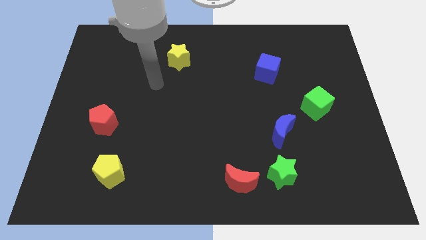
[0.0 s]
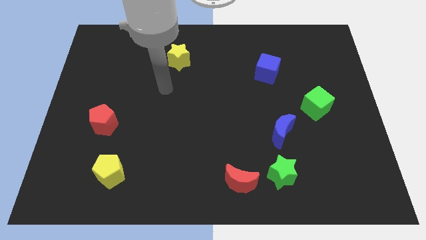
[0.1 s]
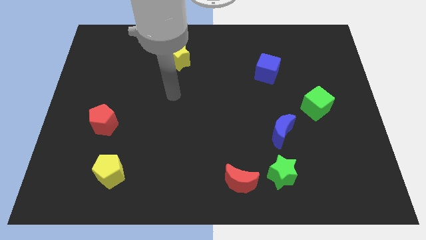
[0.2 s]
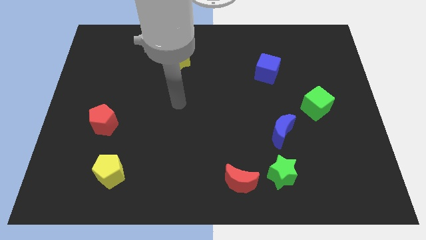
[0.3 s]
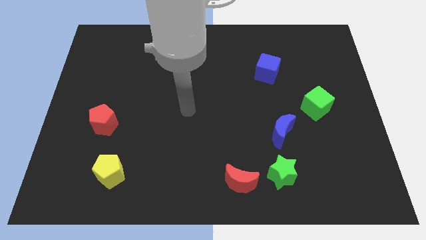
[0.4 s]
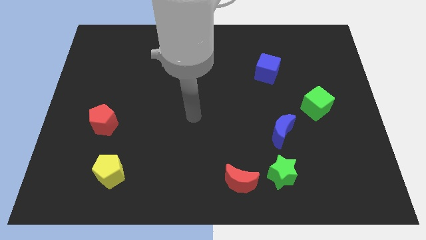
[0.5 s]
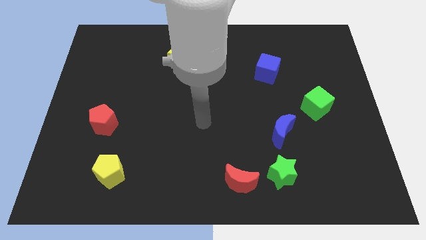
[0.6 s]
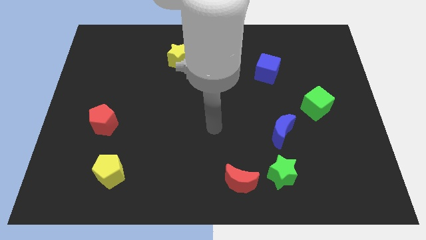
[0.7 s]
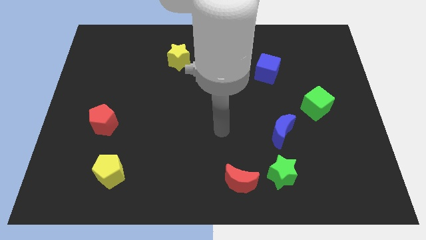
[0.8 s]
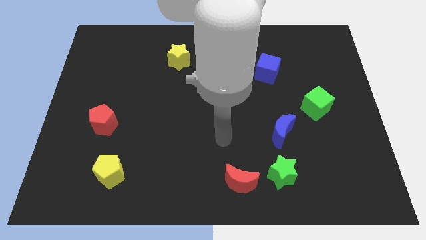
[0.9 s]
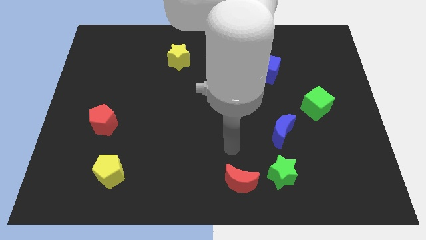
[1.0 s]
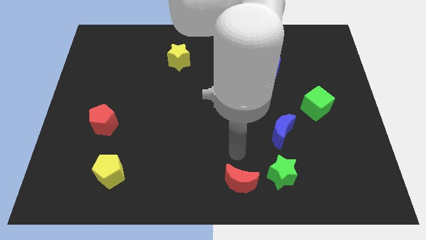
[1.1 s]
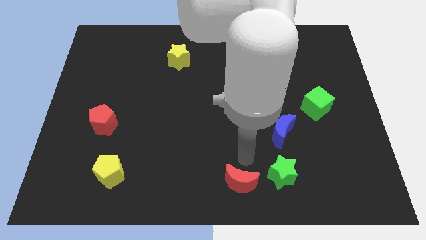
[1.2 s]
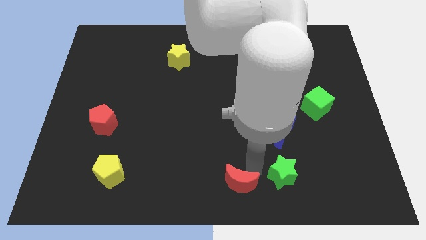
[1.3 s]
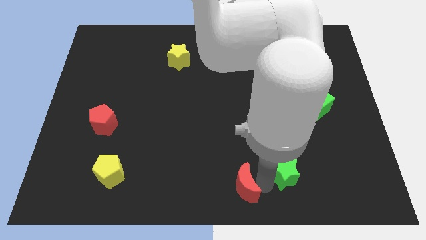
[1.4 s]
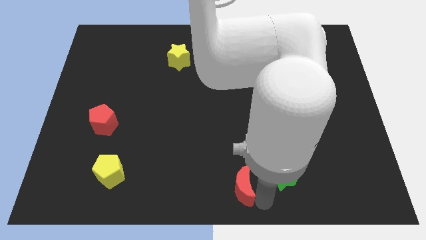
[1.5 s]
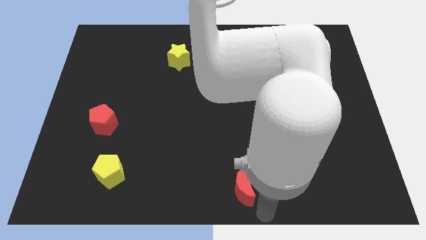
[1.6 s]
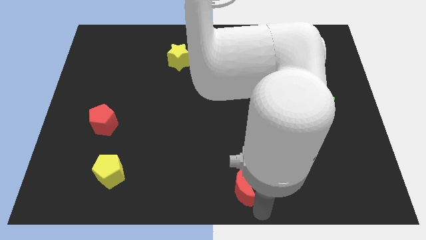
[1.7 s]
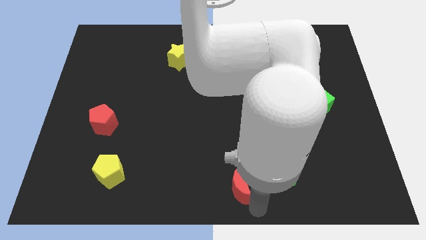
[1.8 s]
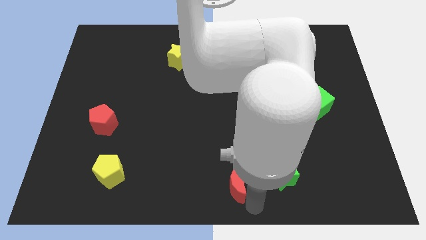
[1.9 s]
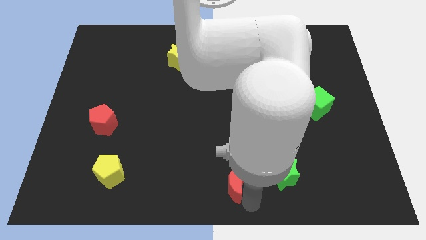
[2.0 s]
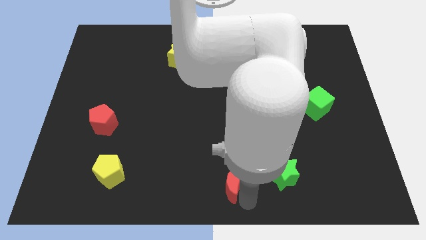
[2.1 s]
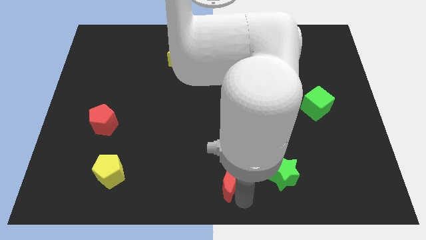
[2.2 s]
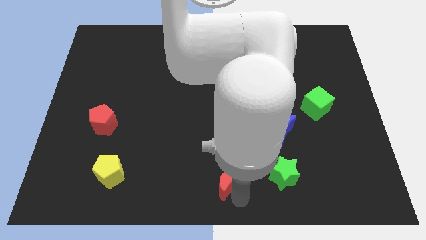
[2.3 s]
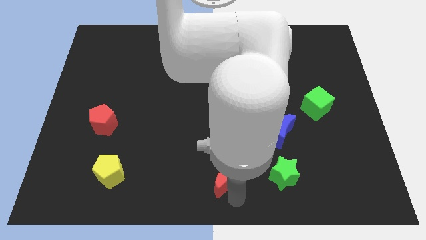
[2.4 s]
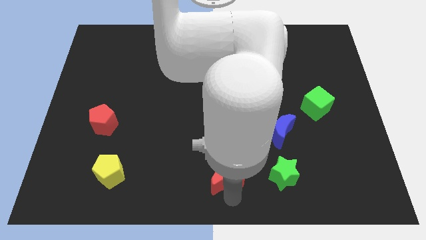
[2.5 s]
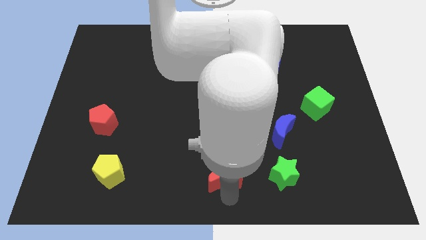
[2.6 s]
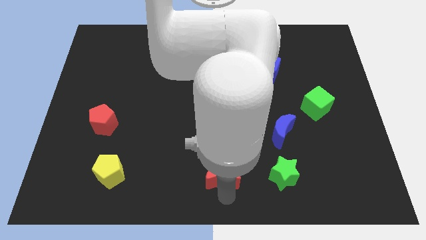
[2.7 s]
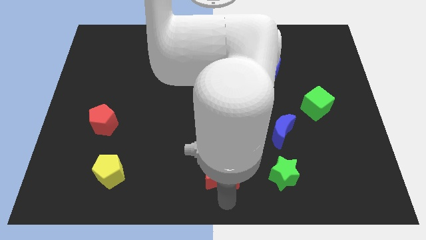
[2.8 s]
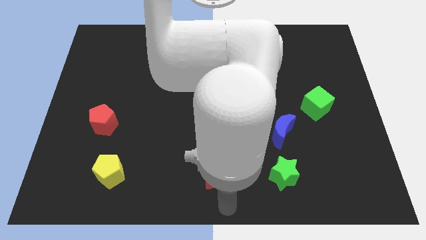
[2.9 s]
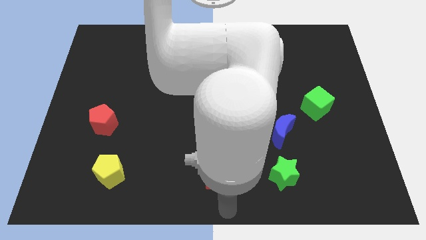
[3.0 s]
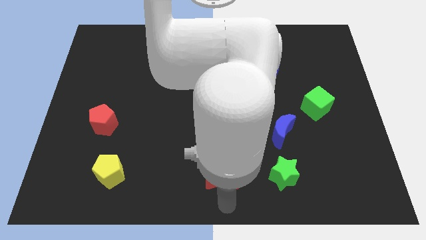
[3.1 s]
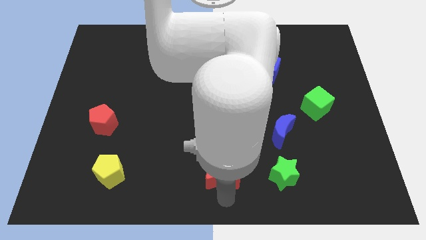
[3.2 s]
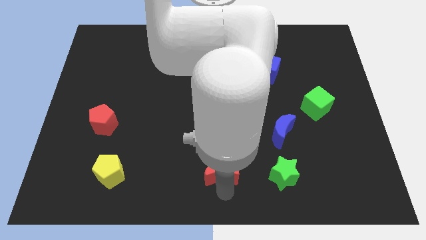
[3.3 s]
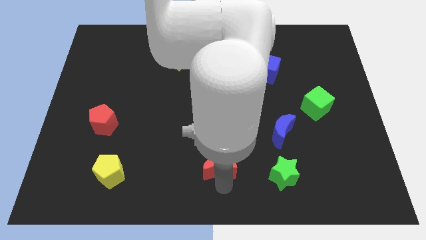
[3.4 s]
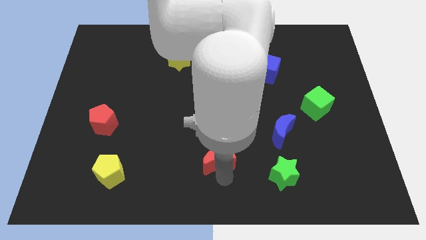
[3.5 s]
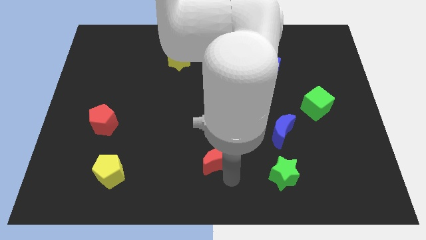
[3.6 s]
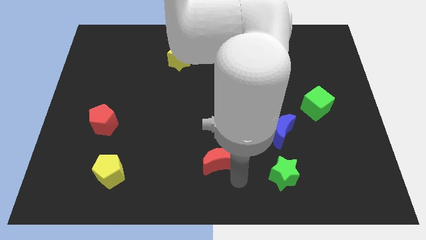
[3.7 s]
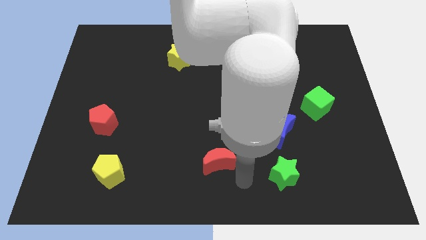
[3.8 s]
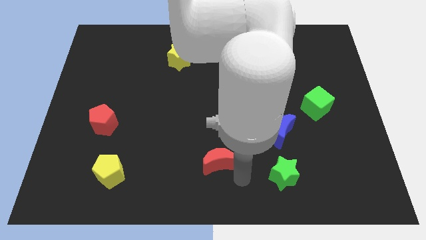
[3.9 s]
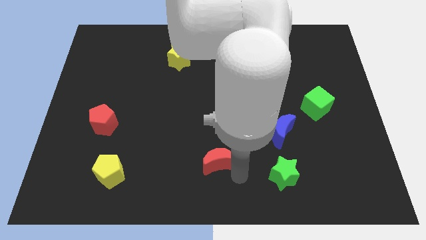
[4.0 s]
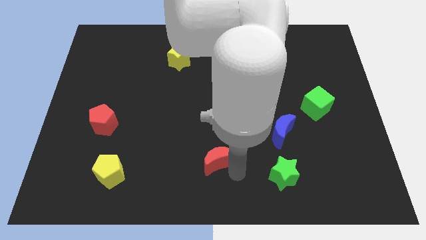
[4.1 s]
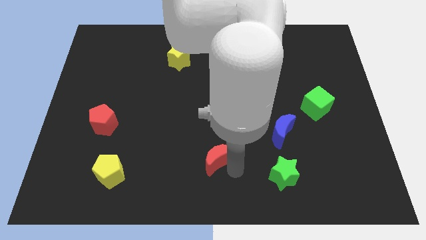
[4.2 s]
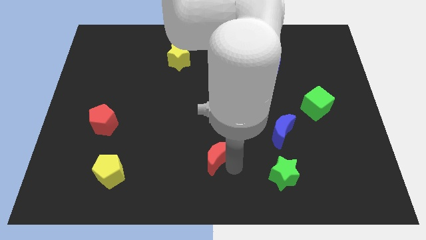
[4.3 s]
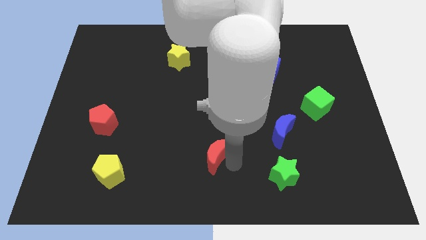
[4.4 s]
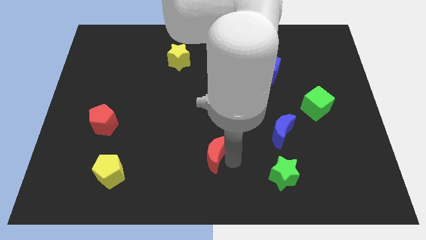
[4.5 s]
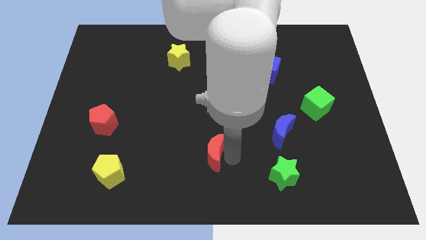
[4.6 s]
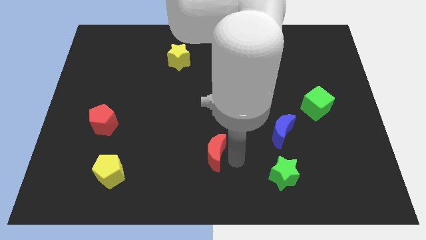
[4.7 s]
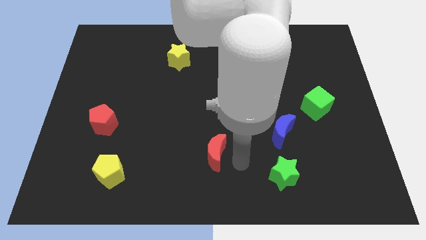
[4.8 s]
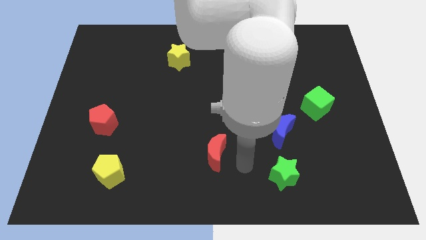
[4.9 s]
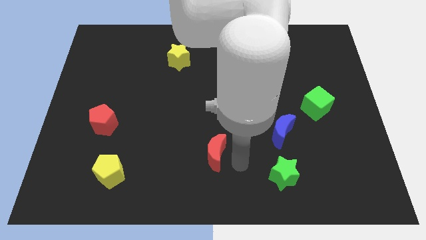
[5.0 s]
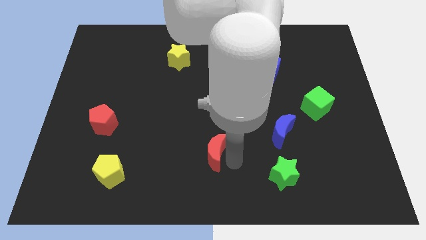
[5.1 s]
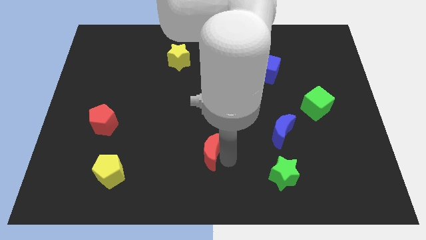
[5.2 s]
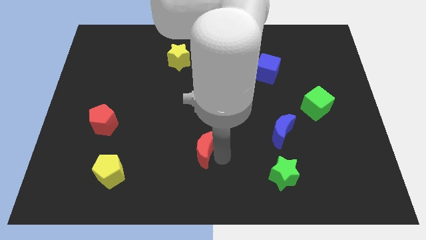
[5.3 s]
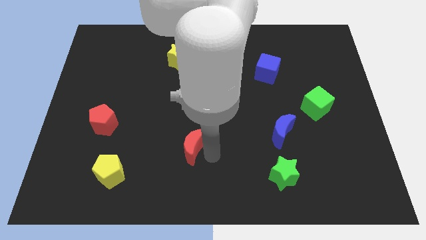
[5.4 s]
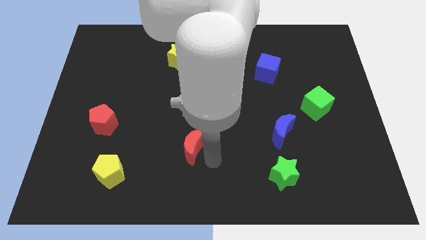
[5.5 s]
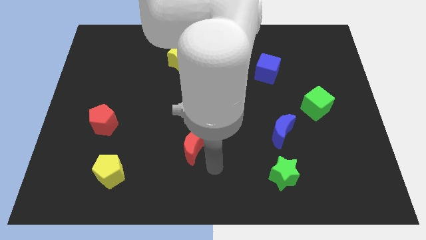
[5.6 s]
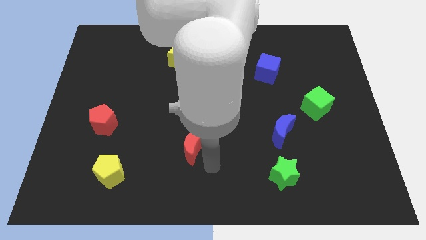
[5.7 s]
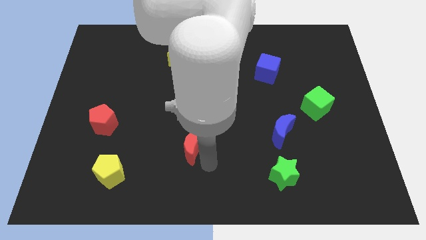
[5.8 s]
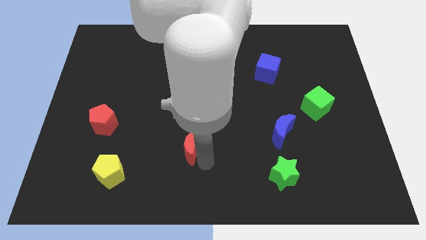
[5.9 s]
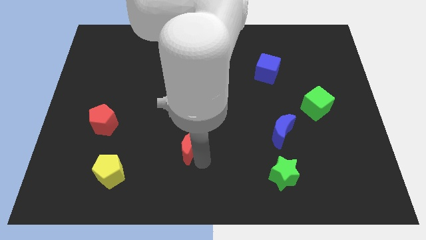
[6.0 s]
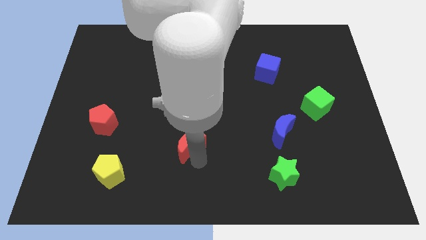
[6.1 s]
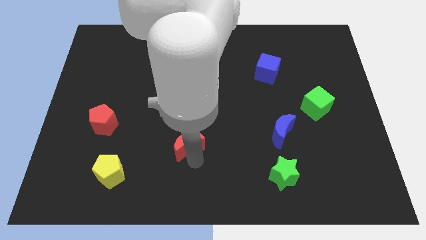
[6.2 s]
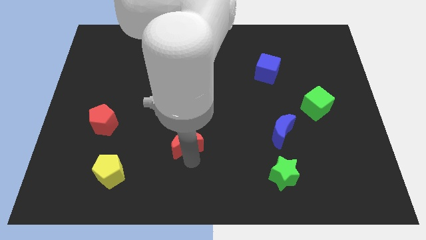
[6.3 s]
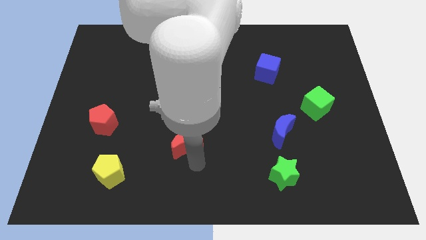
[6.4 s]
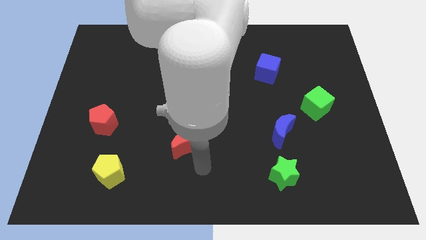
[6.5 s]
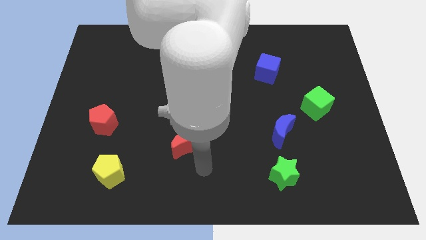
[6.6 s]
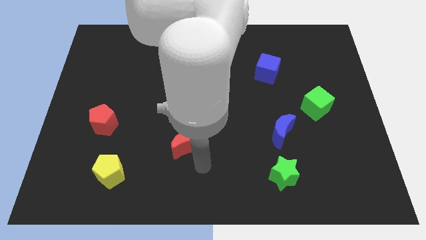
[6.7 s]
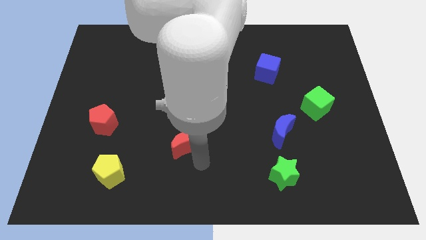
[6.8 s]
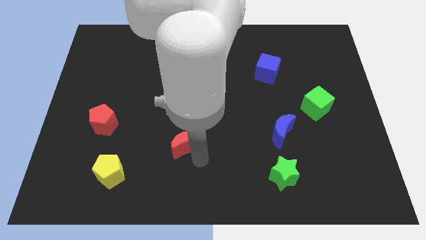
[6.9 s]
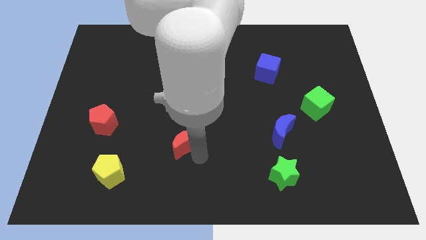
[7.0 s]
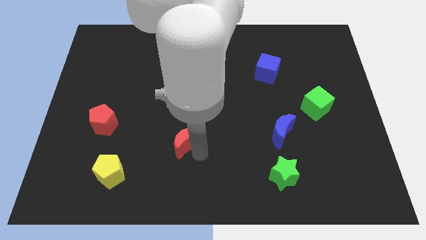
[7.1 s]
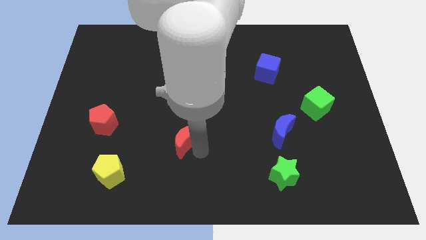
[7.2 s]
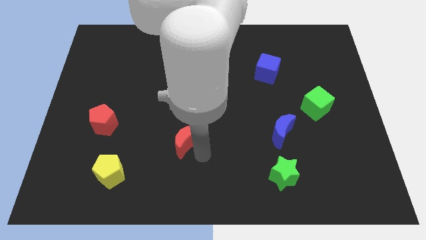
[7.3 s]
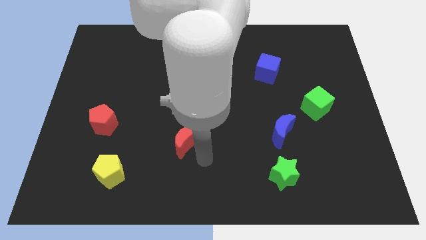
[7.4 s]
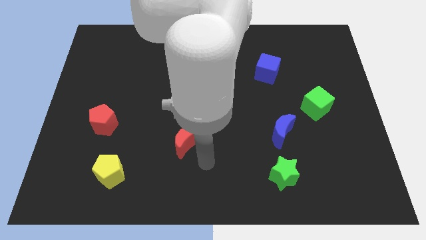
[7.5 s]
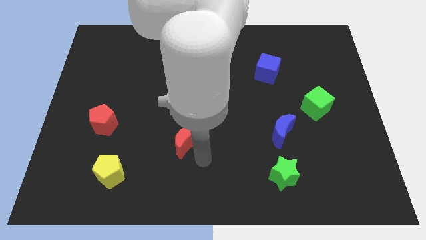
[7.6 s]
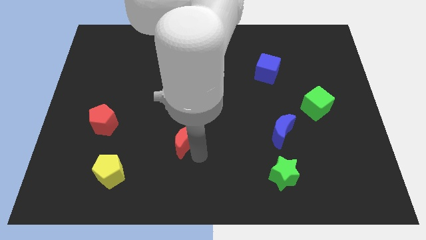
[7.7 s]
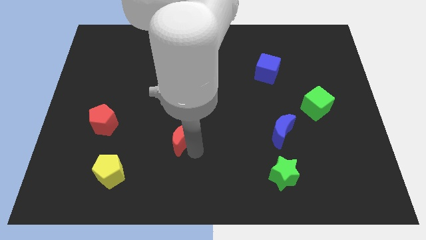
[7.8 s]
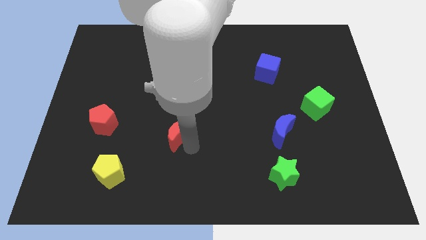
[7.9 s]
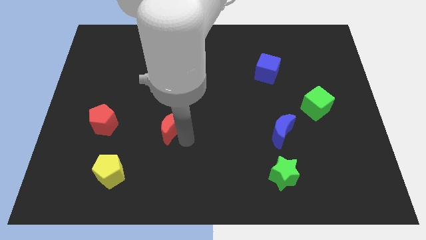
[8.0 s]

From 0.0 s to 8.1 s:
slide the red moon right of the red pentagon

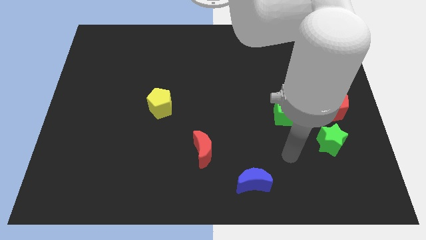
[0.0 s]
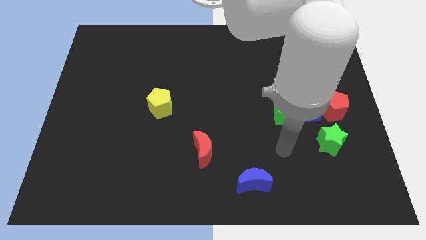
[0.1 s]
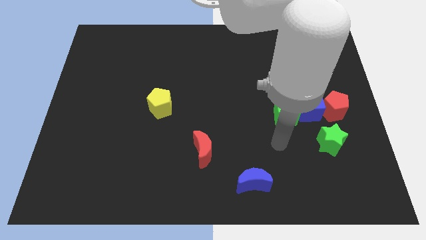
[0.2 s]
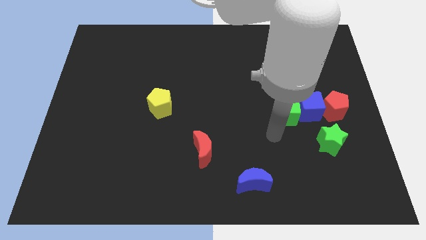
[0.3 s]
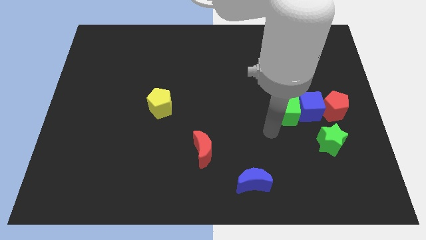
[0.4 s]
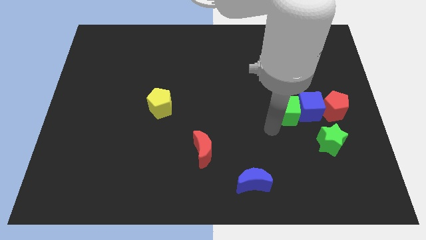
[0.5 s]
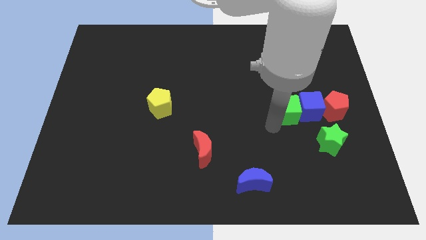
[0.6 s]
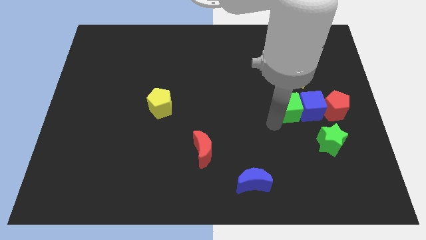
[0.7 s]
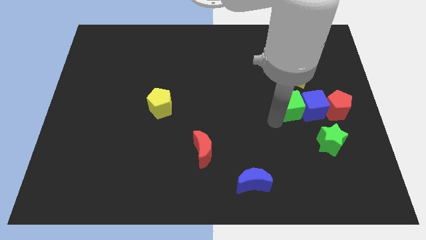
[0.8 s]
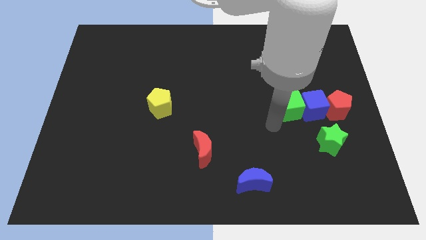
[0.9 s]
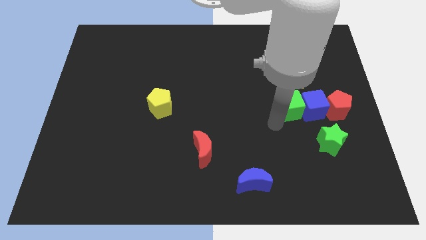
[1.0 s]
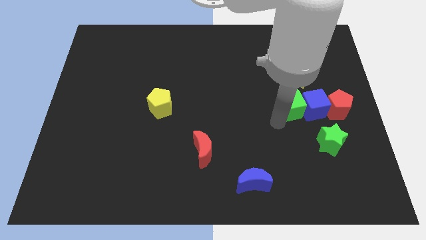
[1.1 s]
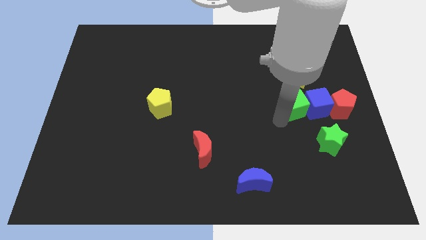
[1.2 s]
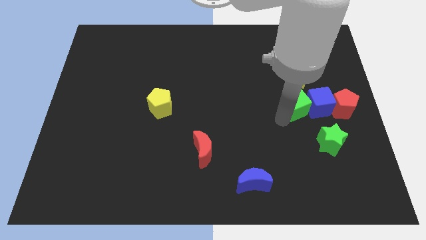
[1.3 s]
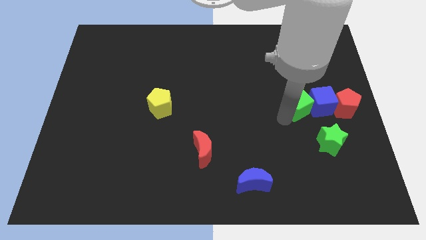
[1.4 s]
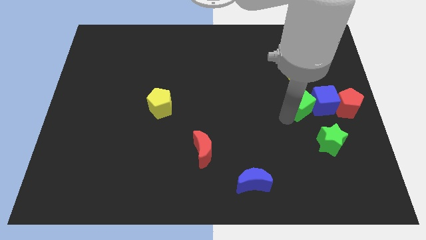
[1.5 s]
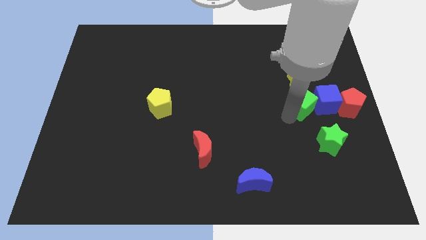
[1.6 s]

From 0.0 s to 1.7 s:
slide the green cube above the green star
